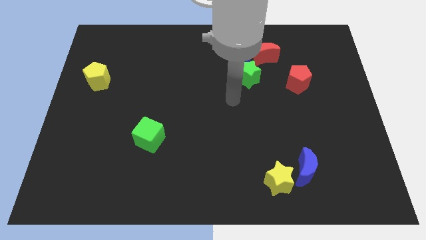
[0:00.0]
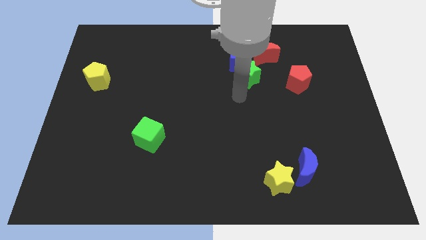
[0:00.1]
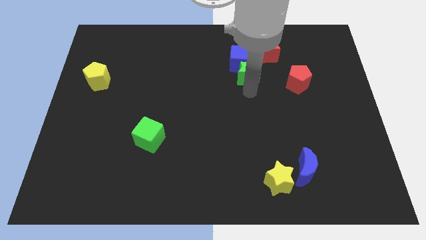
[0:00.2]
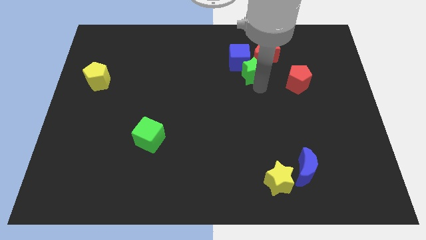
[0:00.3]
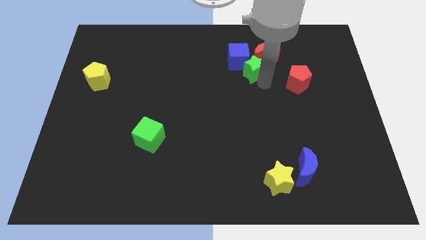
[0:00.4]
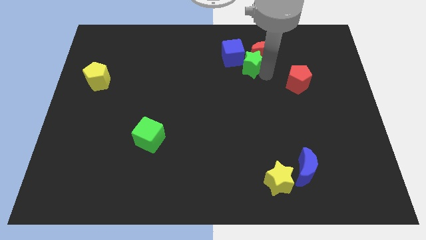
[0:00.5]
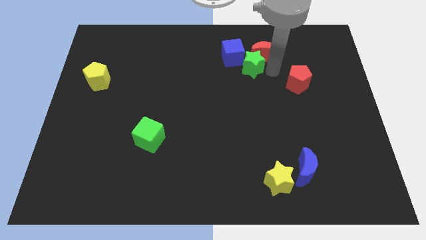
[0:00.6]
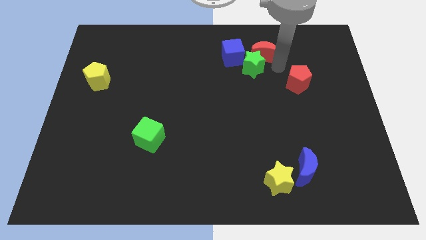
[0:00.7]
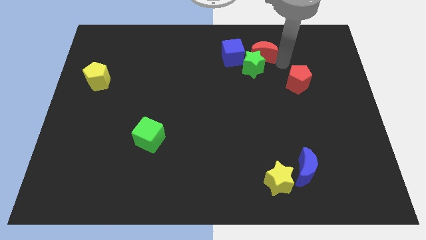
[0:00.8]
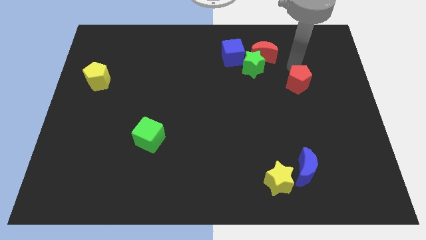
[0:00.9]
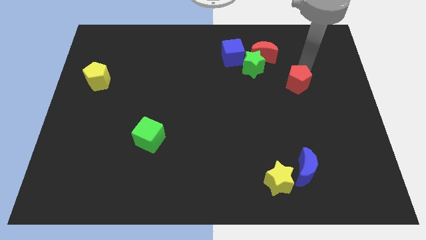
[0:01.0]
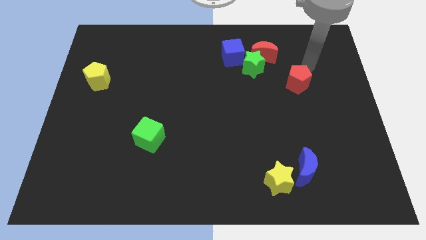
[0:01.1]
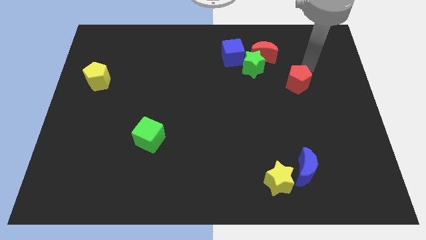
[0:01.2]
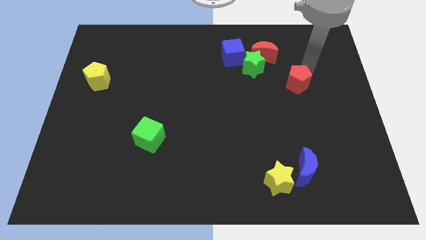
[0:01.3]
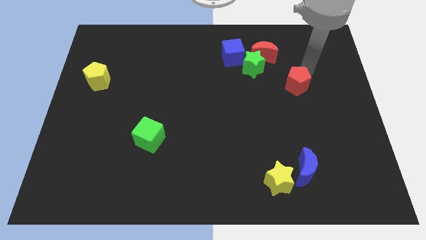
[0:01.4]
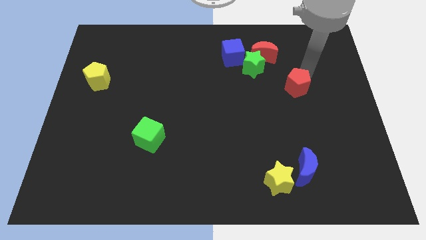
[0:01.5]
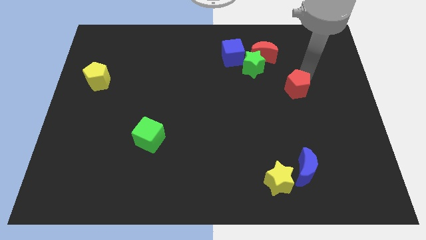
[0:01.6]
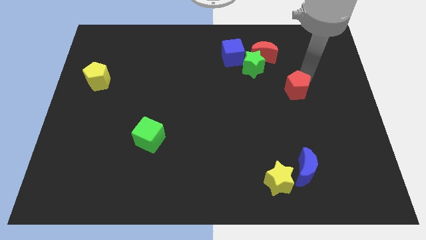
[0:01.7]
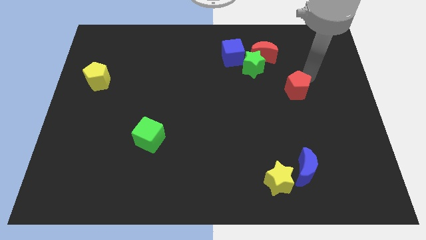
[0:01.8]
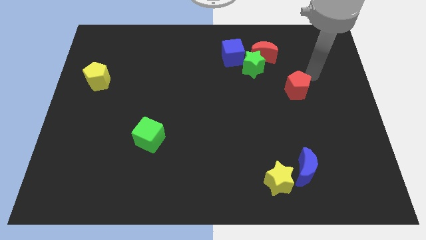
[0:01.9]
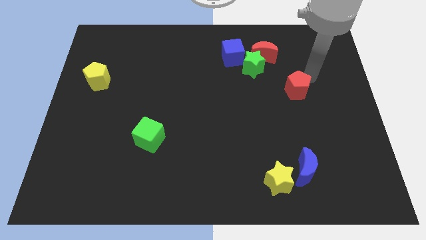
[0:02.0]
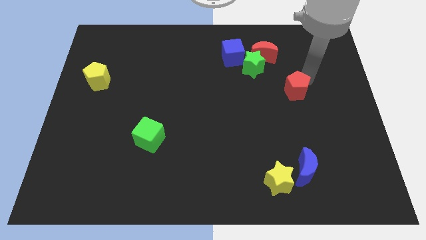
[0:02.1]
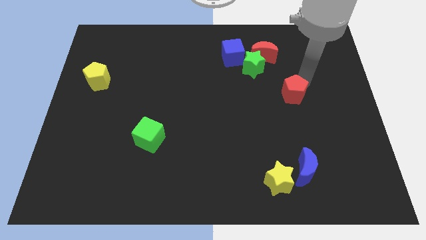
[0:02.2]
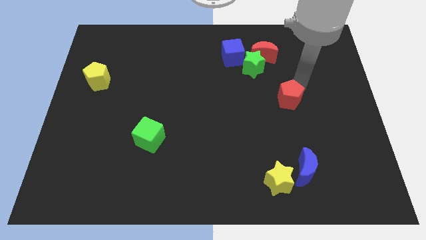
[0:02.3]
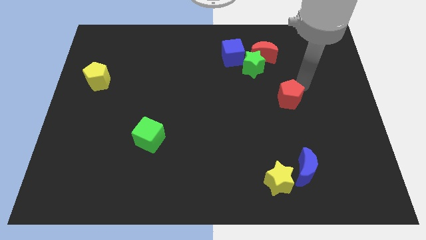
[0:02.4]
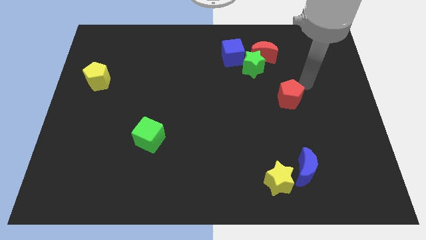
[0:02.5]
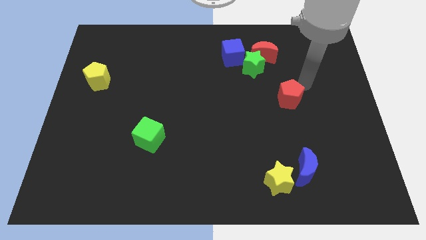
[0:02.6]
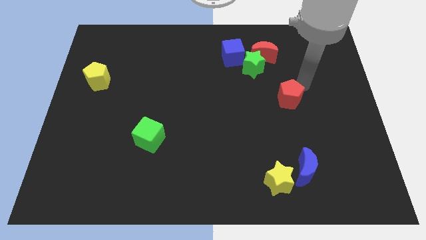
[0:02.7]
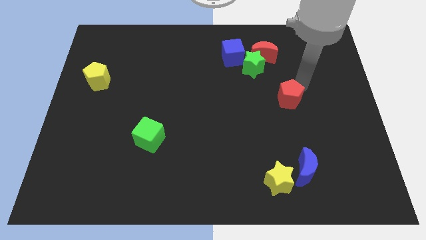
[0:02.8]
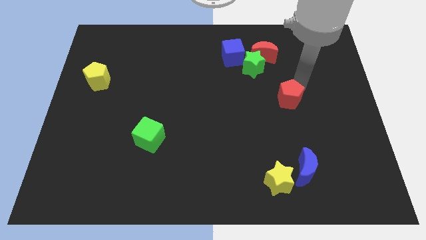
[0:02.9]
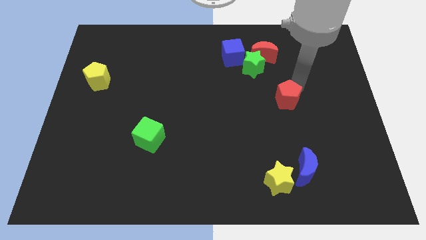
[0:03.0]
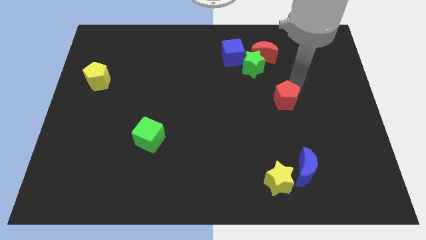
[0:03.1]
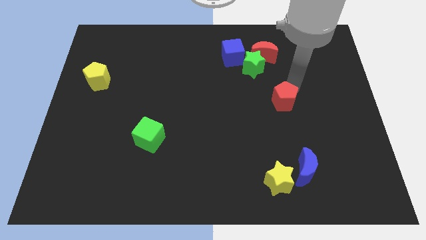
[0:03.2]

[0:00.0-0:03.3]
push the red pentagon downwards and left diagonally a bit

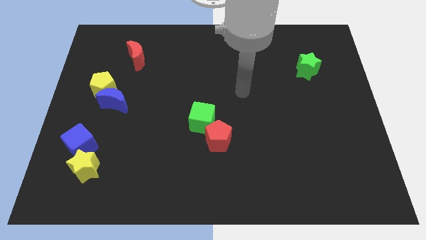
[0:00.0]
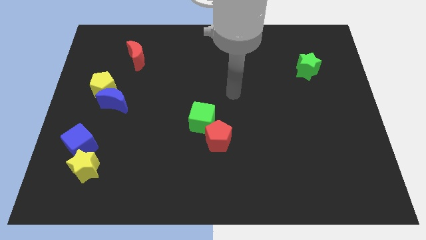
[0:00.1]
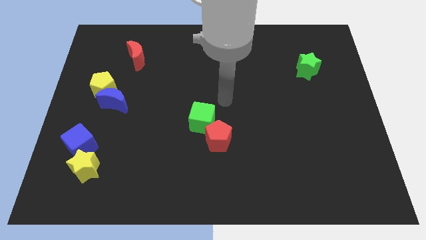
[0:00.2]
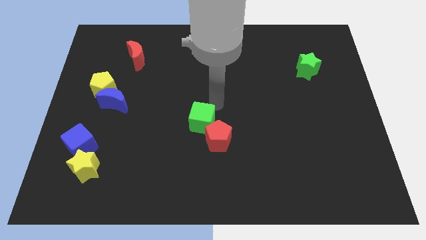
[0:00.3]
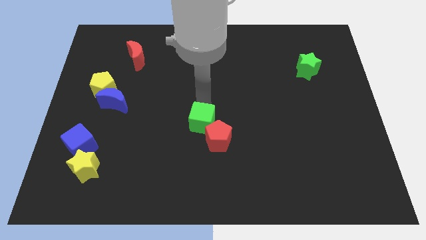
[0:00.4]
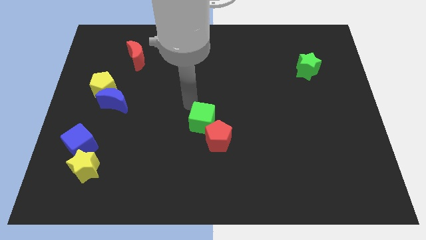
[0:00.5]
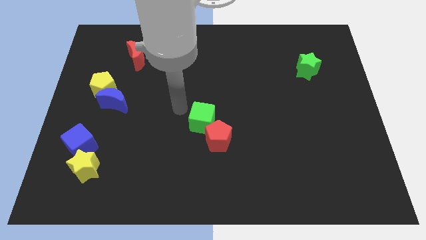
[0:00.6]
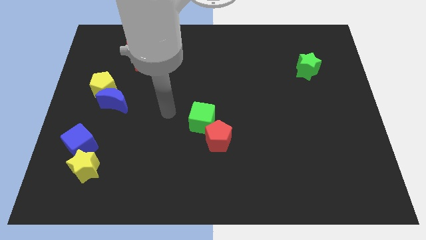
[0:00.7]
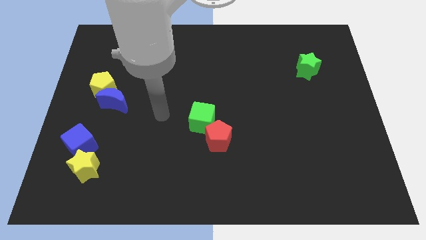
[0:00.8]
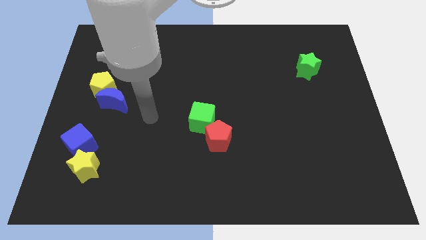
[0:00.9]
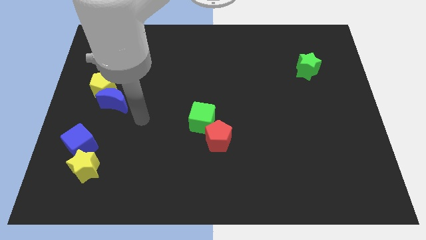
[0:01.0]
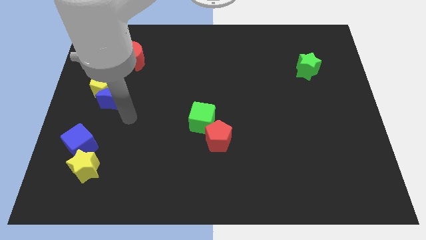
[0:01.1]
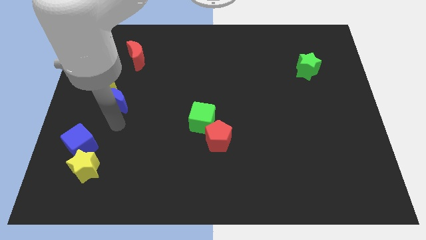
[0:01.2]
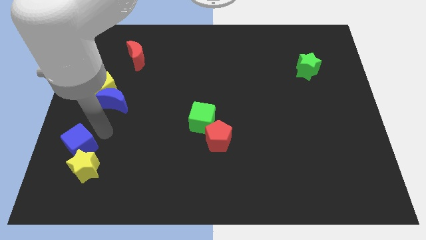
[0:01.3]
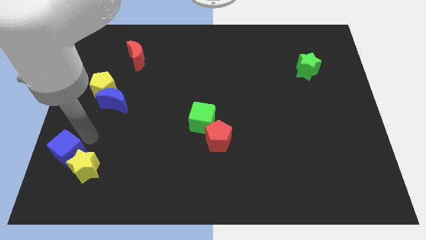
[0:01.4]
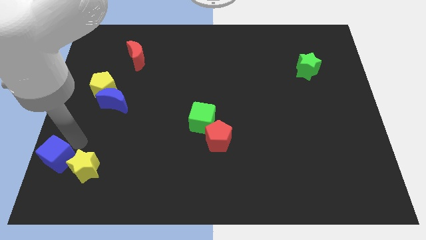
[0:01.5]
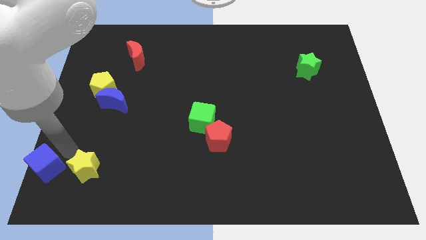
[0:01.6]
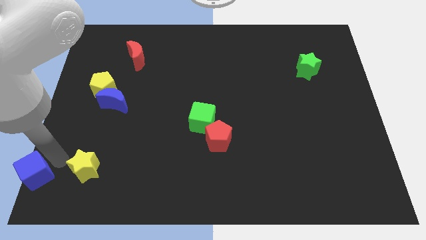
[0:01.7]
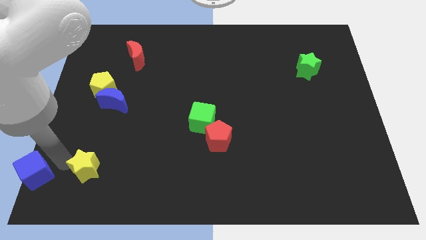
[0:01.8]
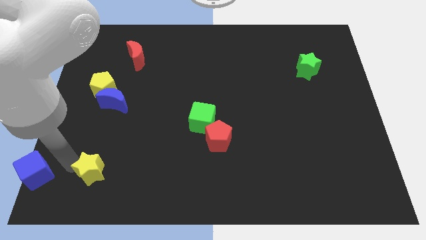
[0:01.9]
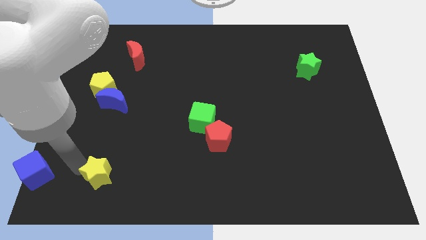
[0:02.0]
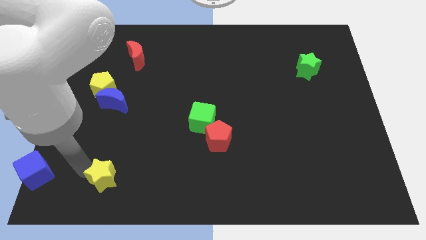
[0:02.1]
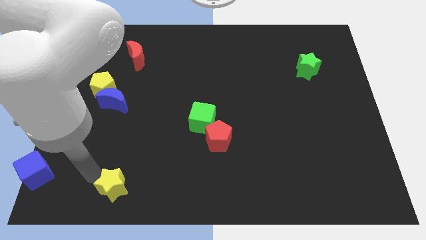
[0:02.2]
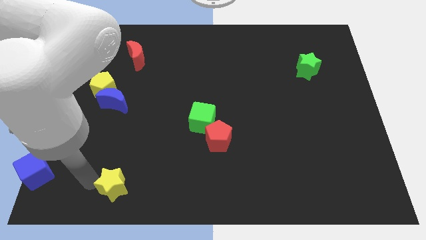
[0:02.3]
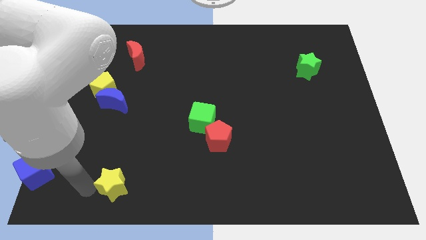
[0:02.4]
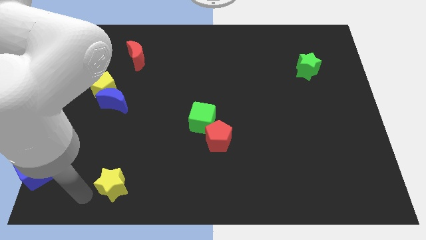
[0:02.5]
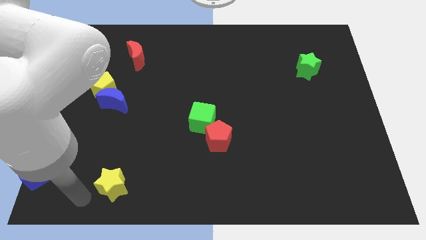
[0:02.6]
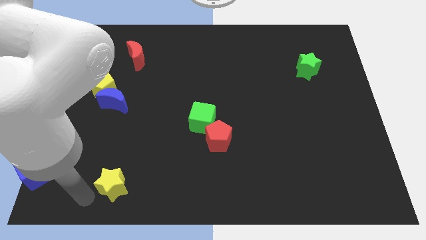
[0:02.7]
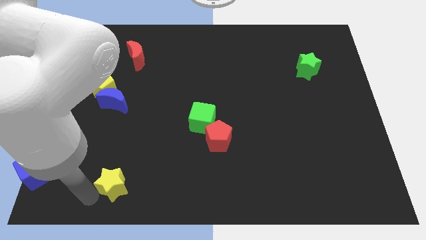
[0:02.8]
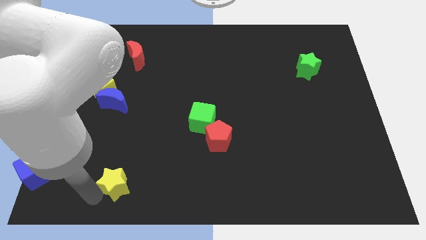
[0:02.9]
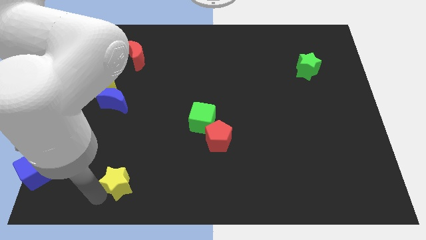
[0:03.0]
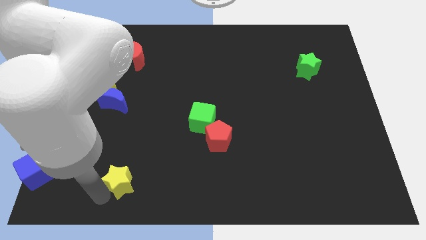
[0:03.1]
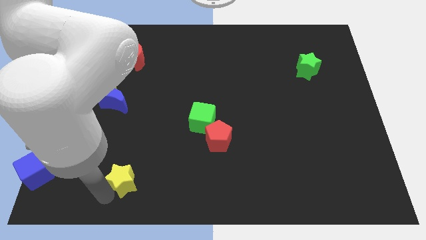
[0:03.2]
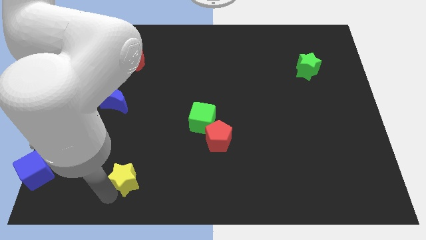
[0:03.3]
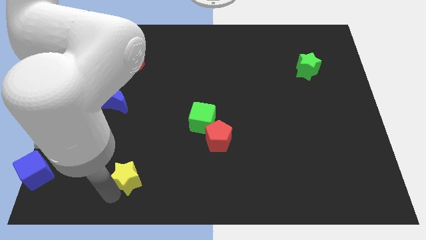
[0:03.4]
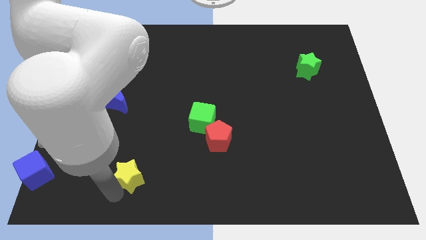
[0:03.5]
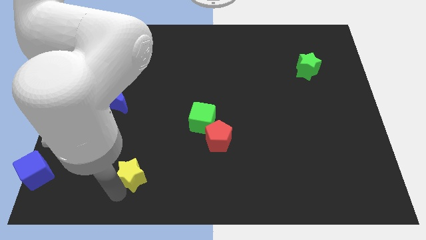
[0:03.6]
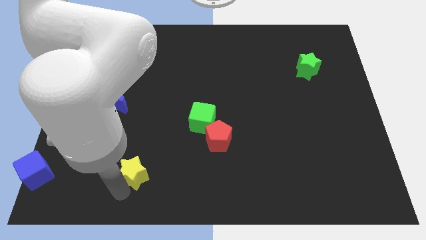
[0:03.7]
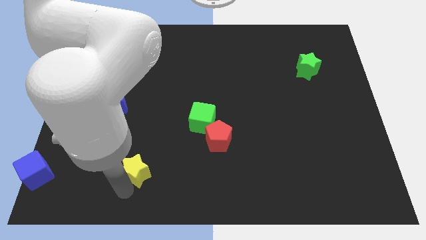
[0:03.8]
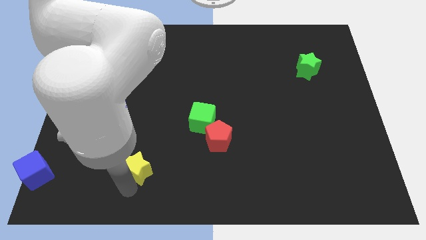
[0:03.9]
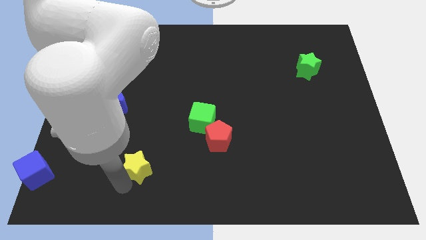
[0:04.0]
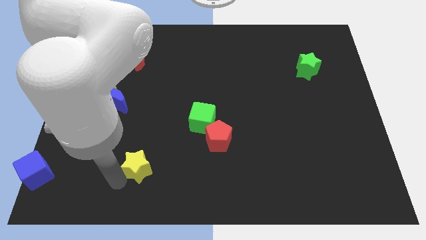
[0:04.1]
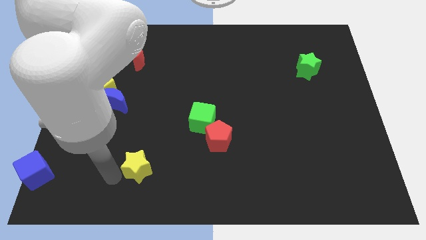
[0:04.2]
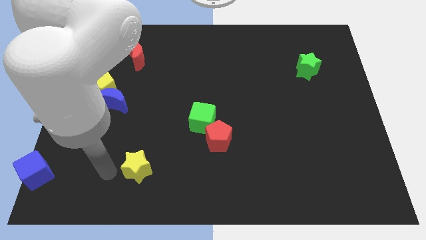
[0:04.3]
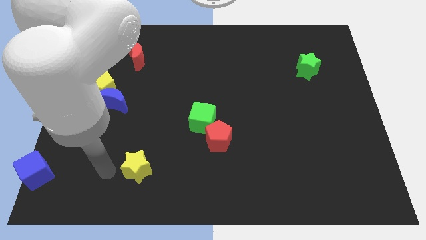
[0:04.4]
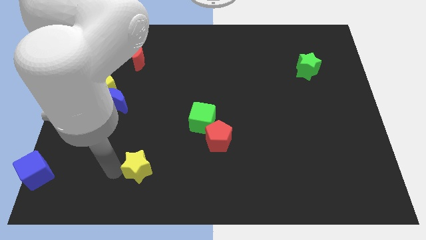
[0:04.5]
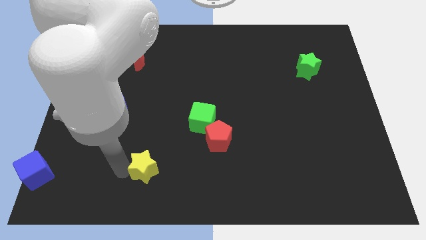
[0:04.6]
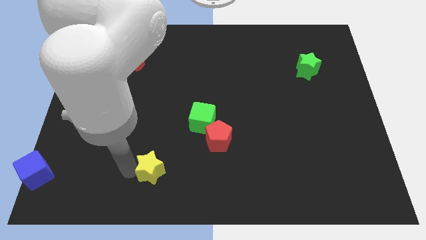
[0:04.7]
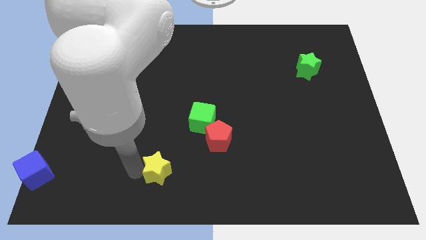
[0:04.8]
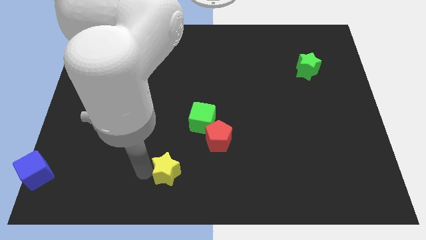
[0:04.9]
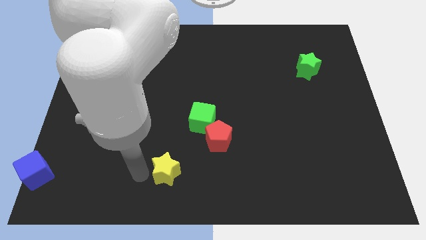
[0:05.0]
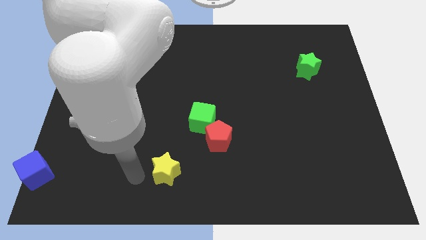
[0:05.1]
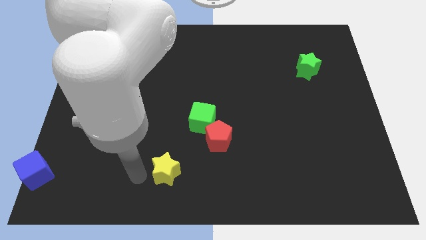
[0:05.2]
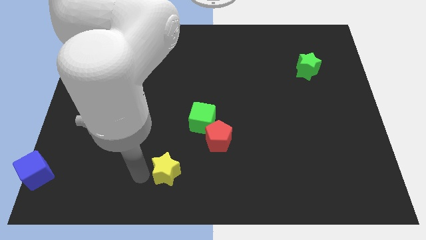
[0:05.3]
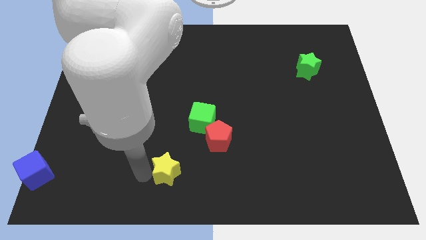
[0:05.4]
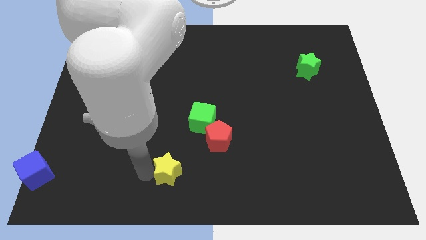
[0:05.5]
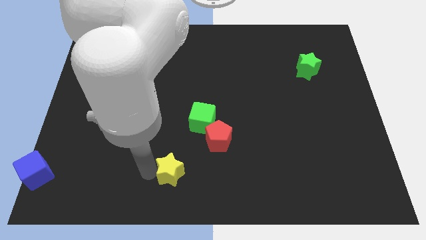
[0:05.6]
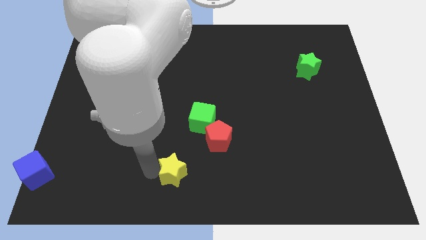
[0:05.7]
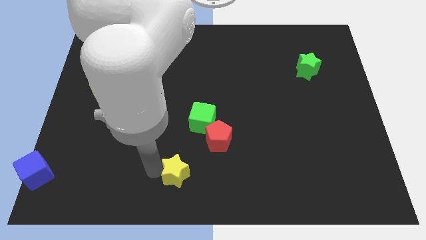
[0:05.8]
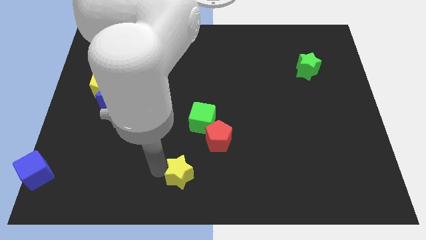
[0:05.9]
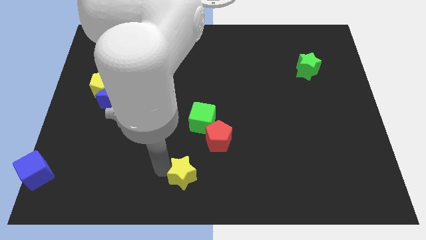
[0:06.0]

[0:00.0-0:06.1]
slide the yellow star right
